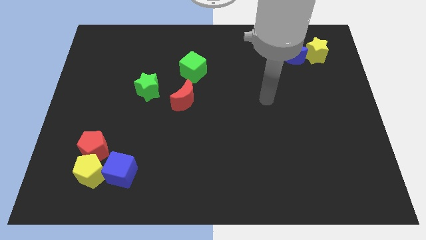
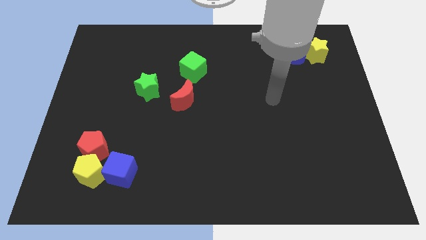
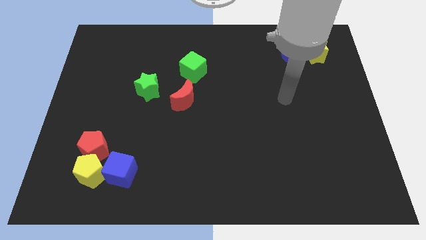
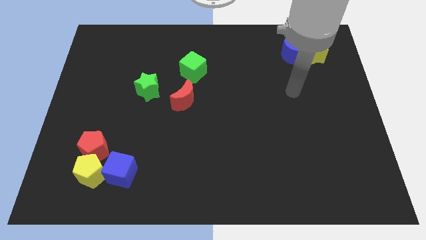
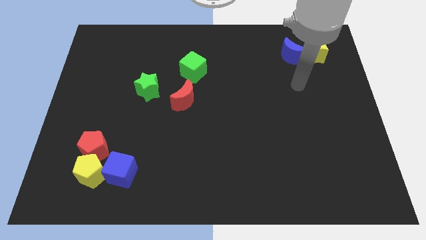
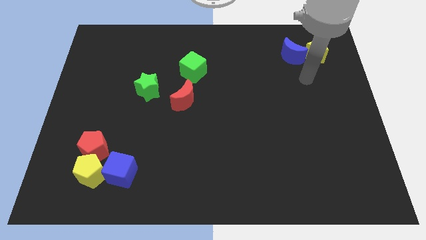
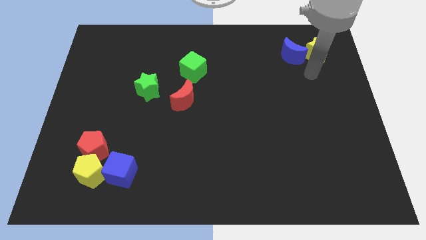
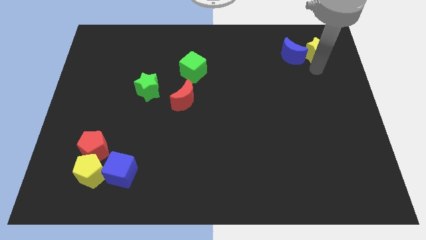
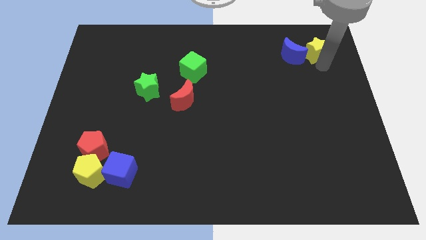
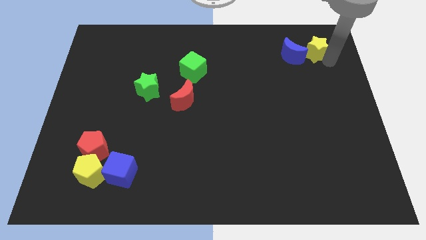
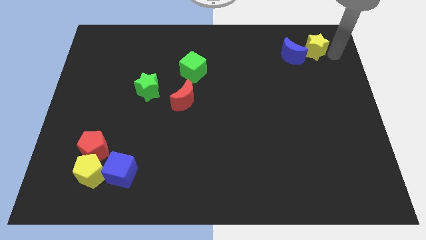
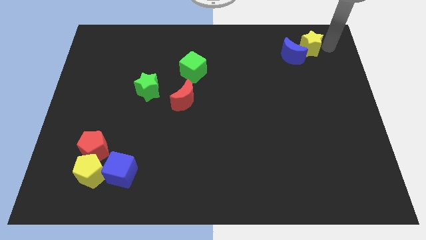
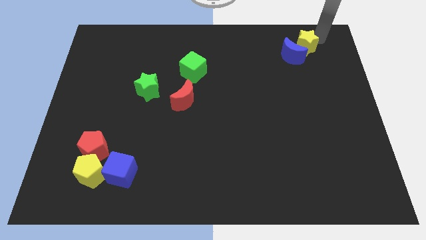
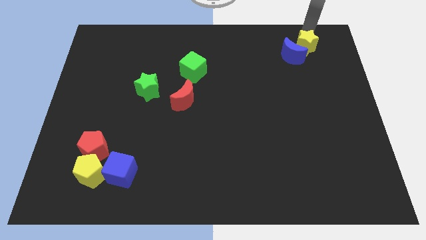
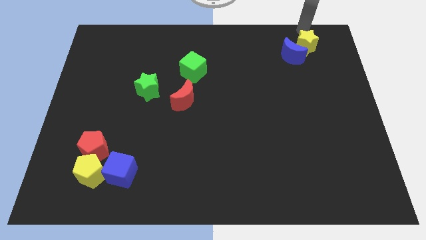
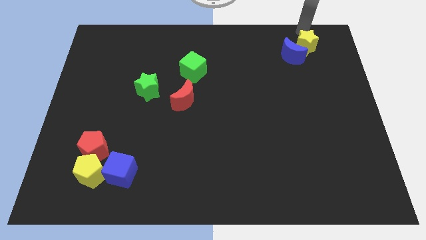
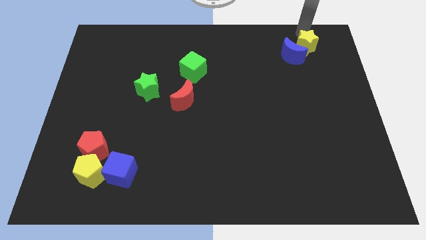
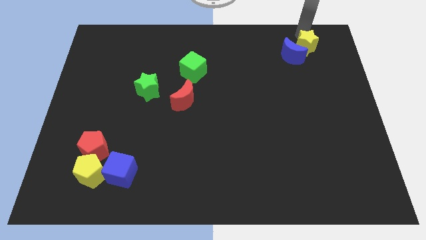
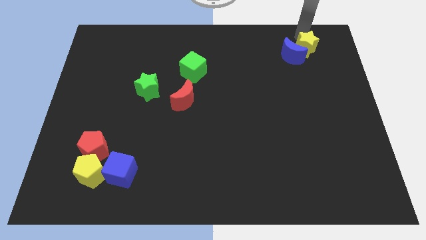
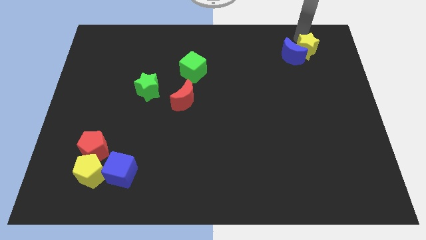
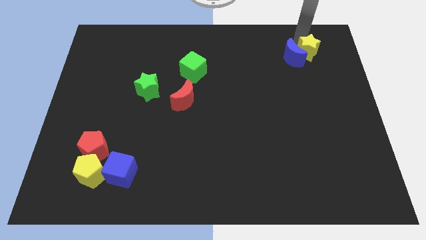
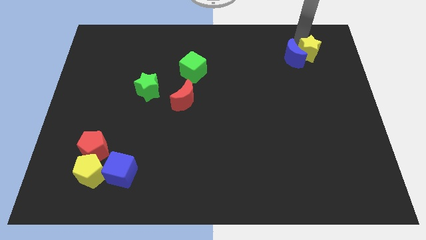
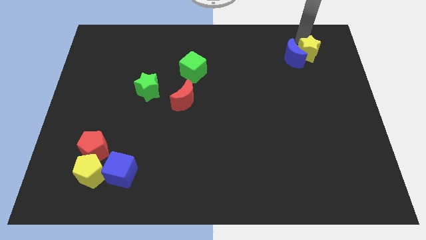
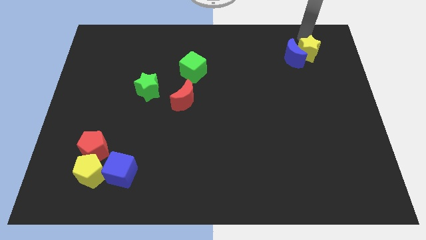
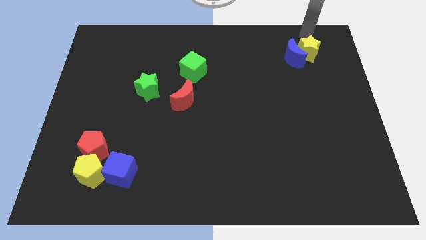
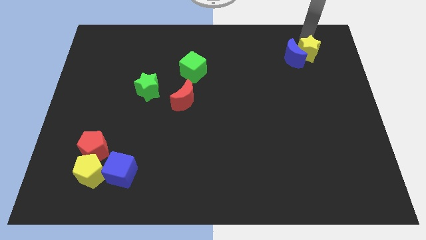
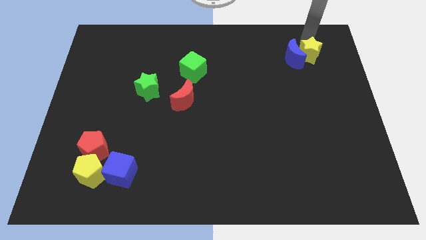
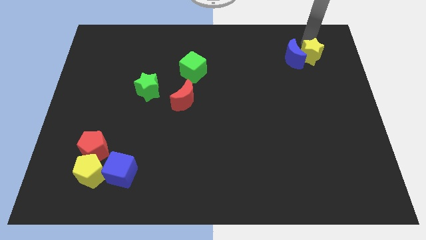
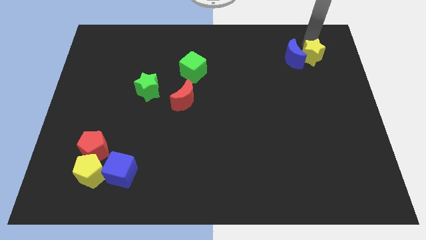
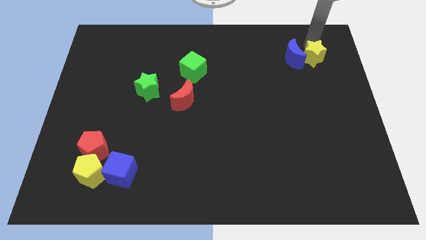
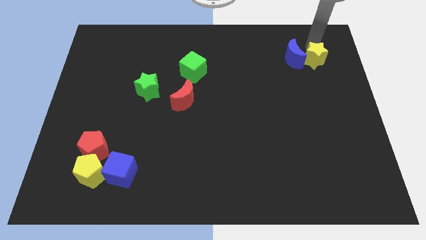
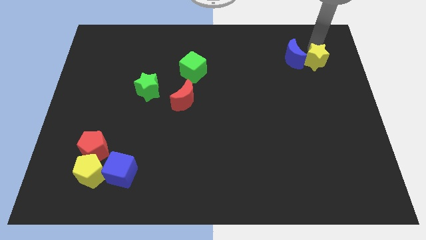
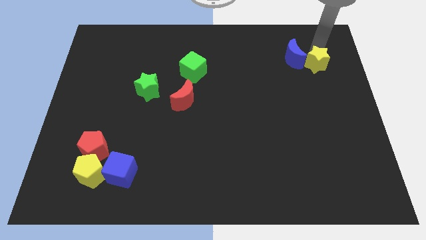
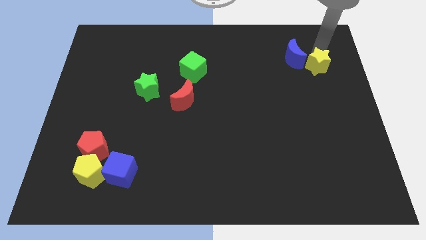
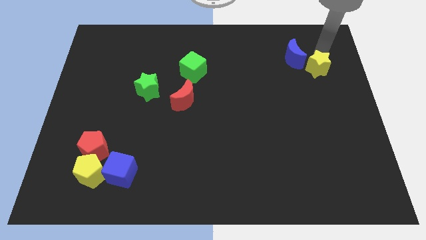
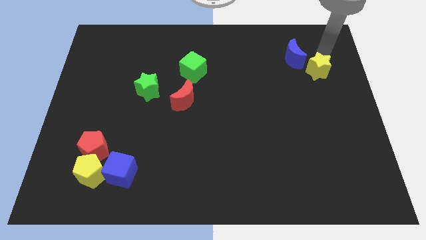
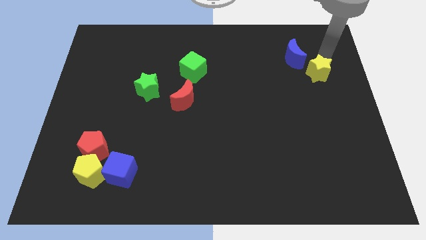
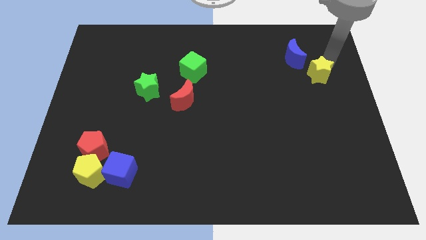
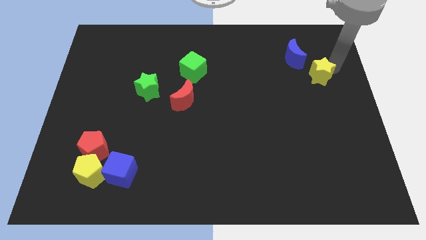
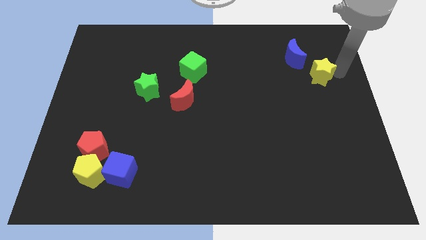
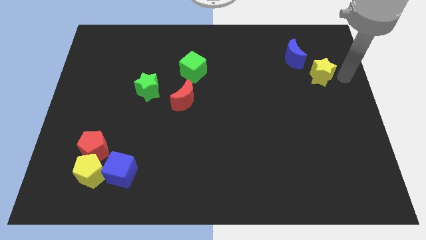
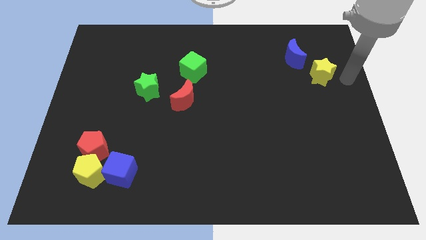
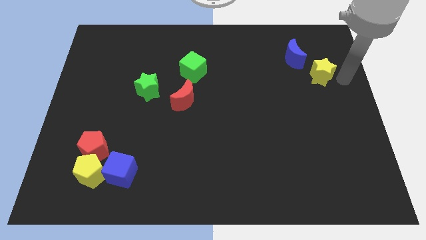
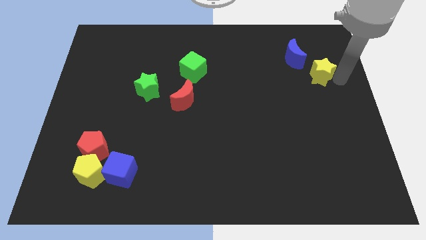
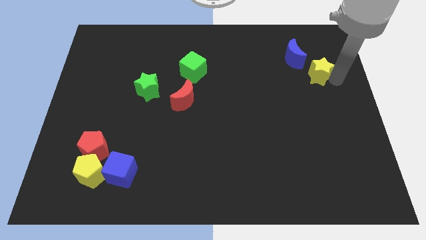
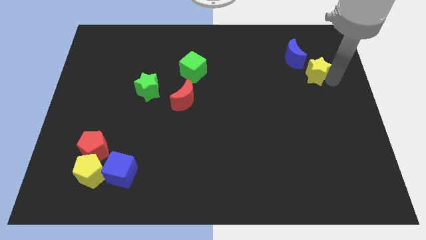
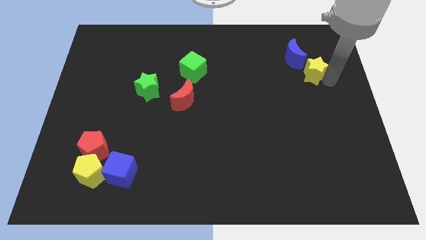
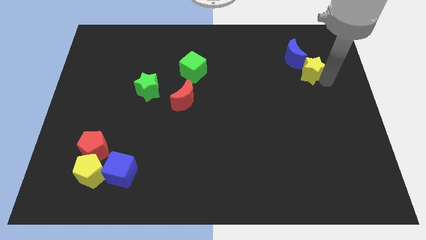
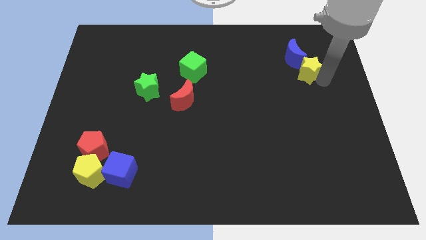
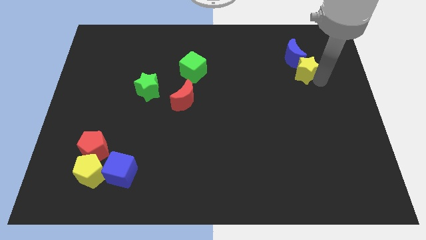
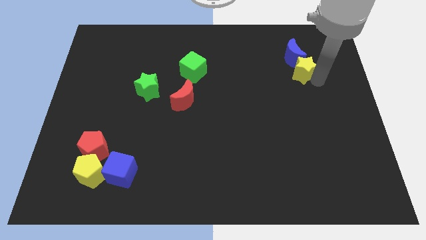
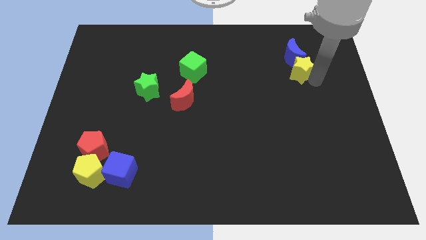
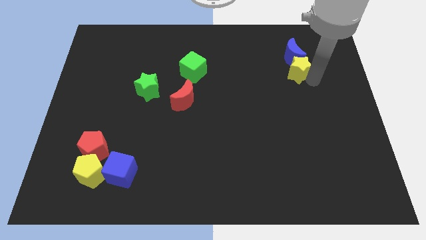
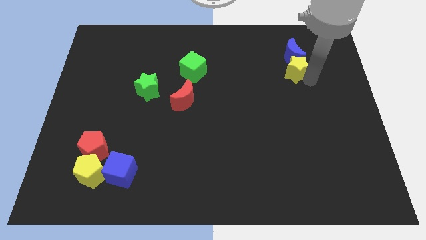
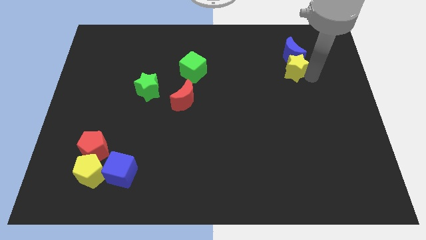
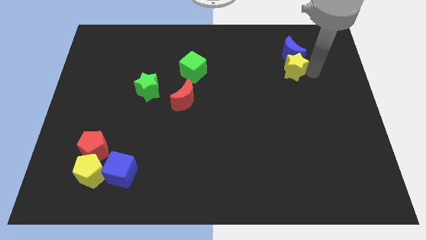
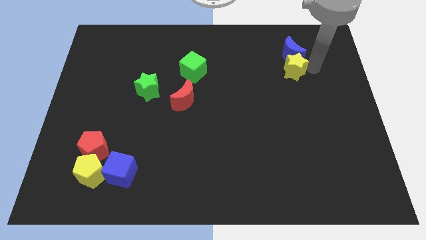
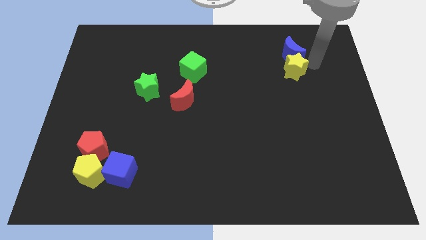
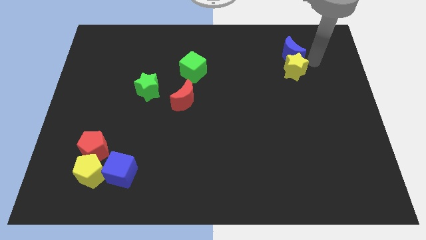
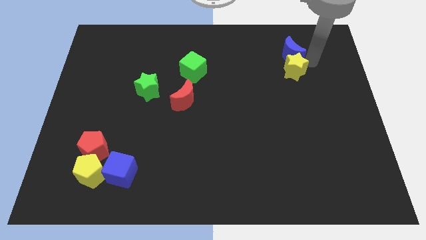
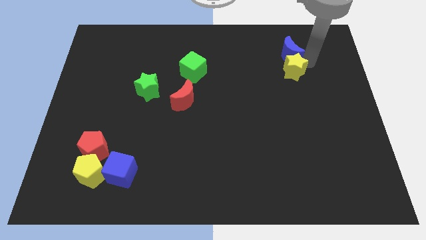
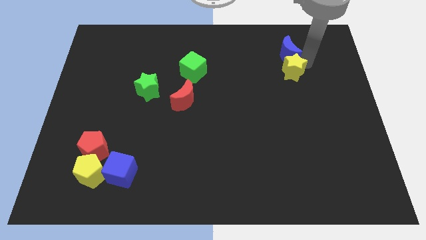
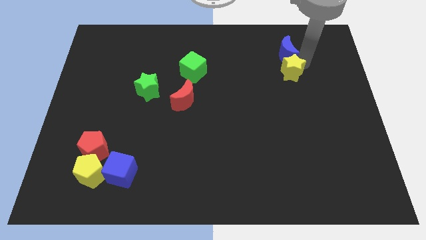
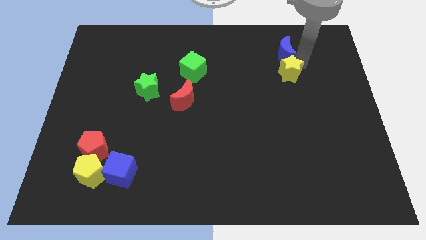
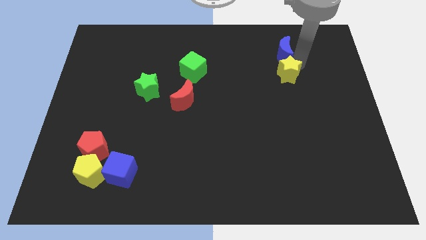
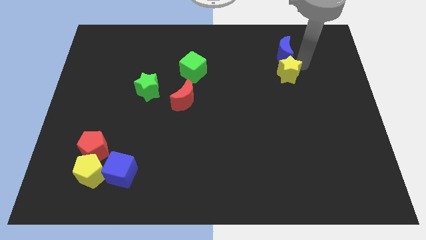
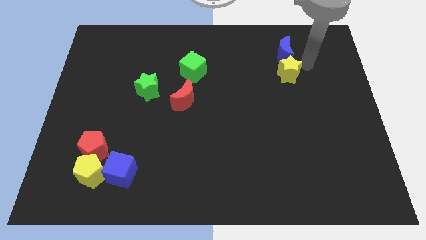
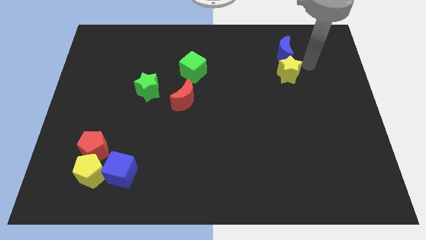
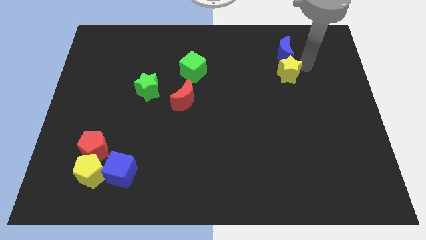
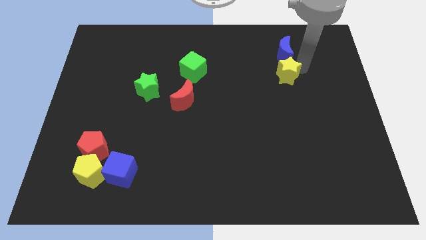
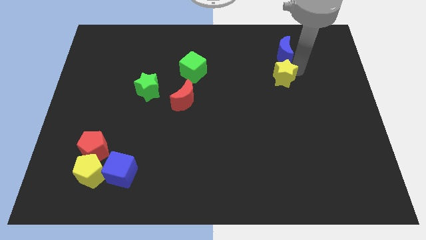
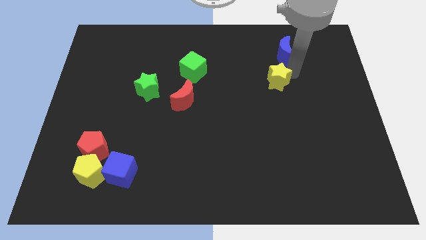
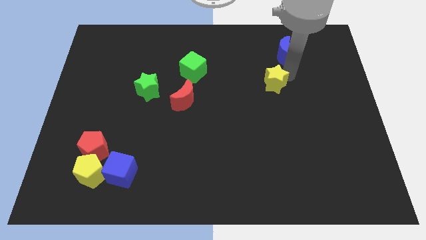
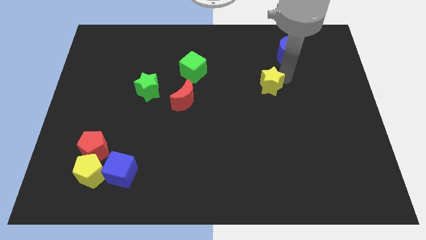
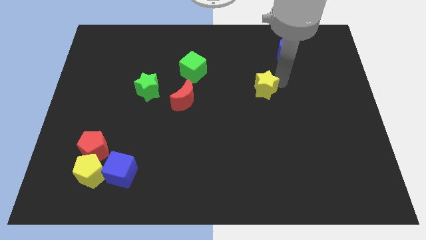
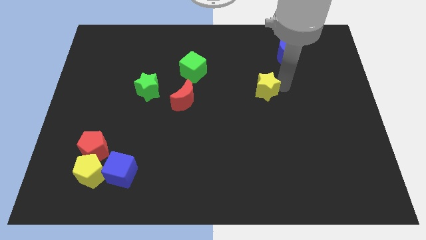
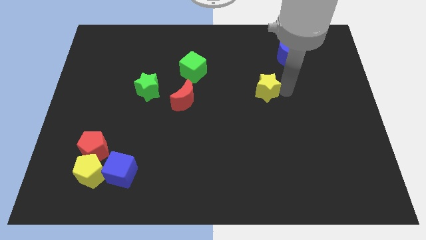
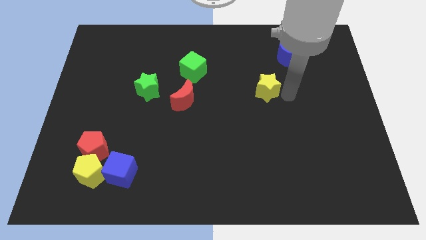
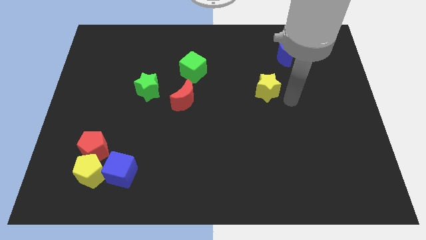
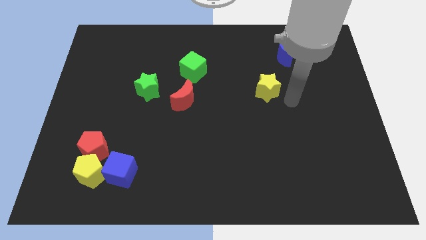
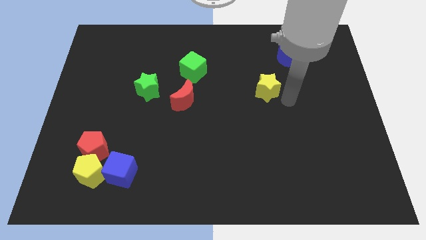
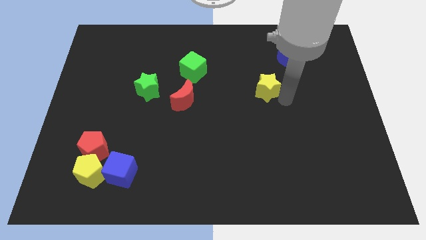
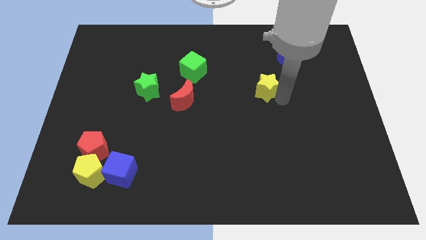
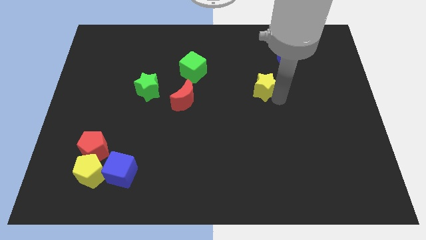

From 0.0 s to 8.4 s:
push the yellow star to the center of the board
